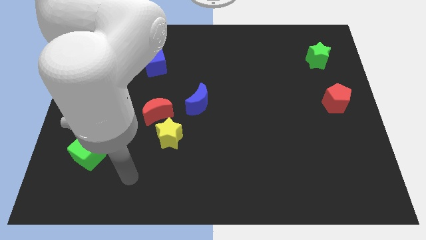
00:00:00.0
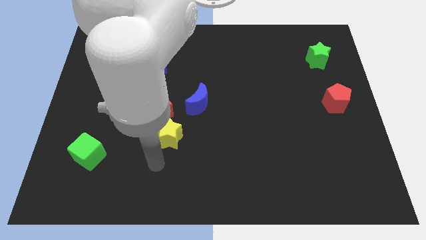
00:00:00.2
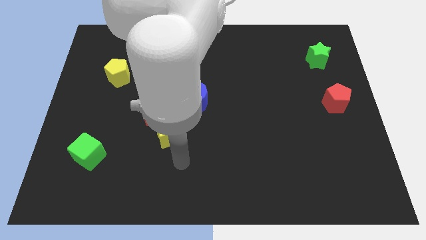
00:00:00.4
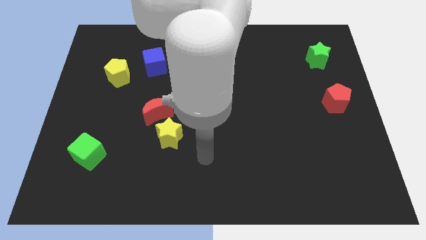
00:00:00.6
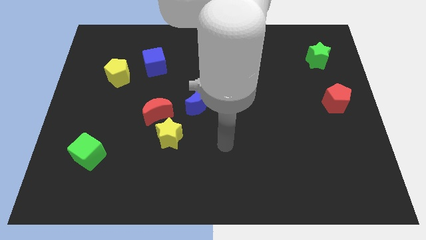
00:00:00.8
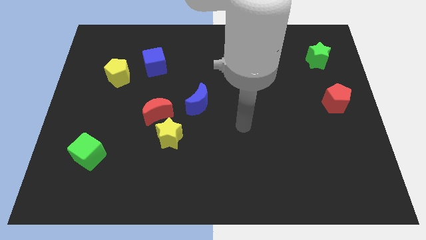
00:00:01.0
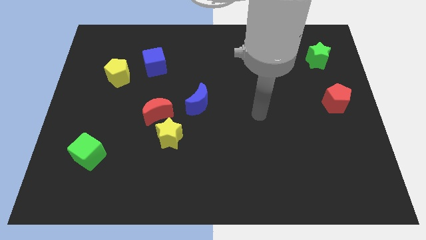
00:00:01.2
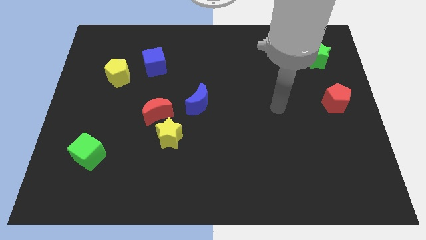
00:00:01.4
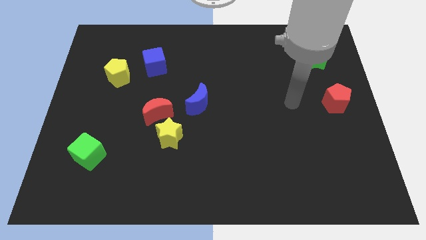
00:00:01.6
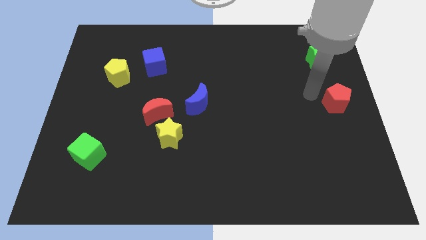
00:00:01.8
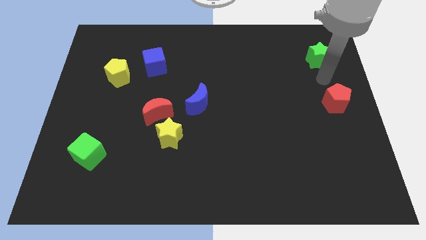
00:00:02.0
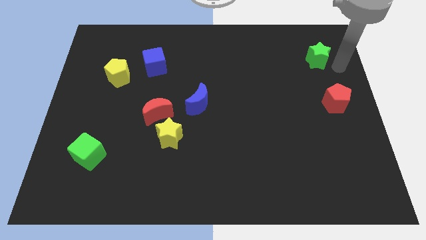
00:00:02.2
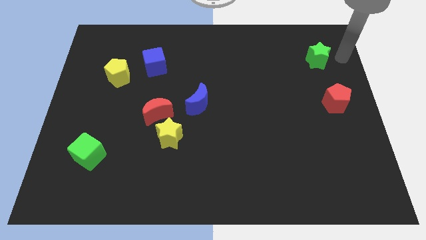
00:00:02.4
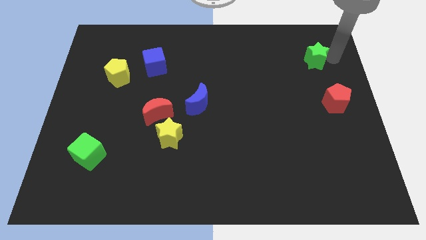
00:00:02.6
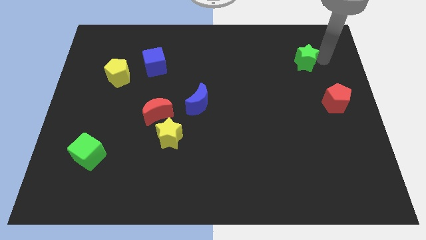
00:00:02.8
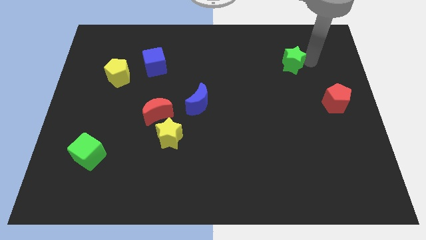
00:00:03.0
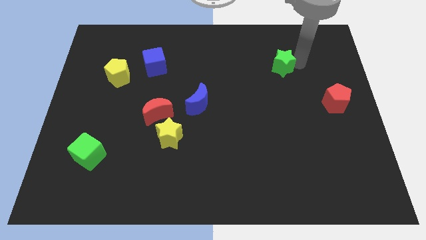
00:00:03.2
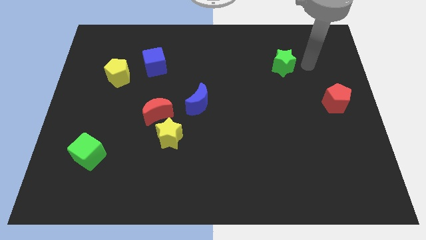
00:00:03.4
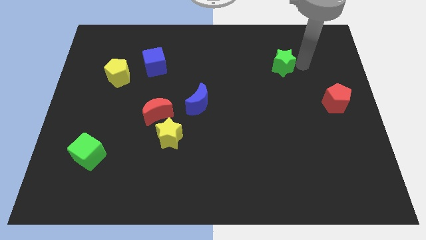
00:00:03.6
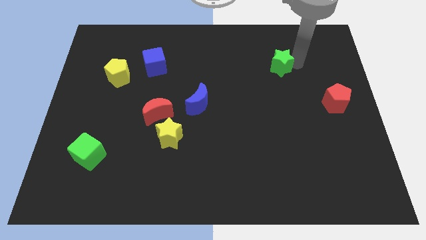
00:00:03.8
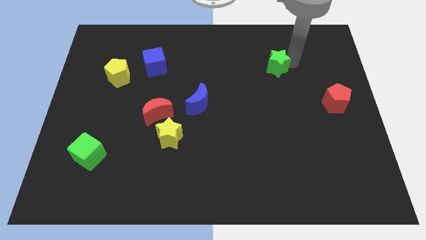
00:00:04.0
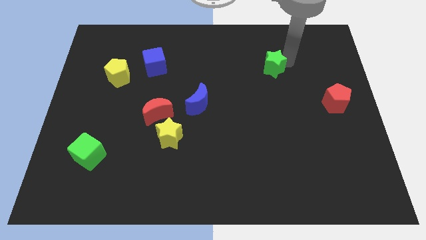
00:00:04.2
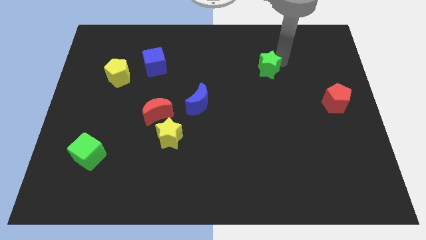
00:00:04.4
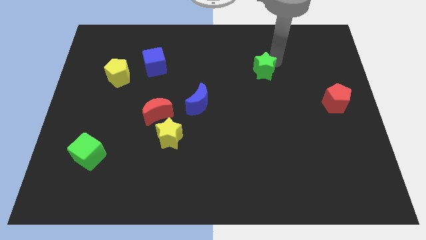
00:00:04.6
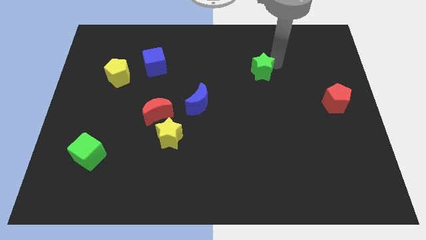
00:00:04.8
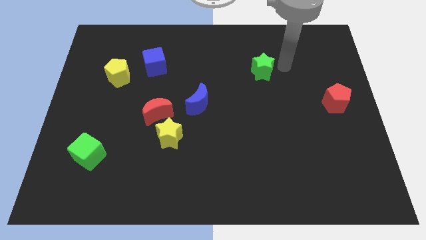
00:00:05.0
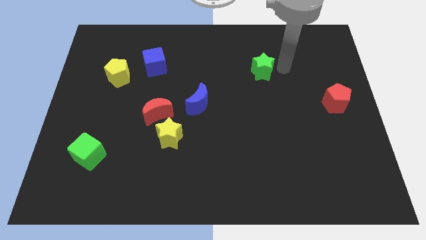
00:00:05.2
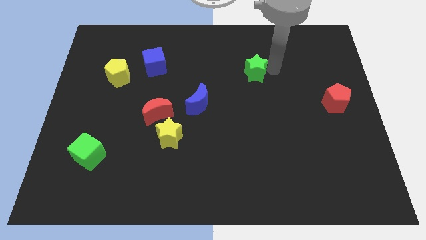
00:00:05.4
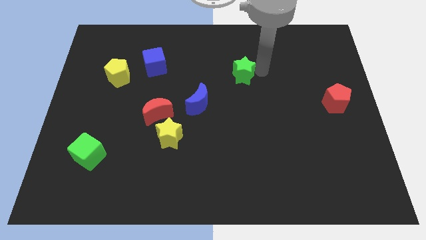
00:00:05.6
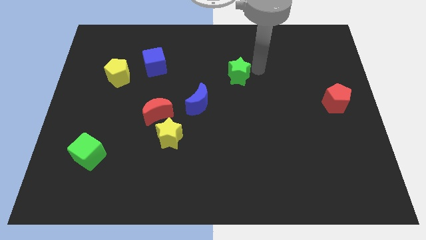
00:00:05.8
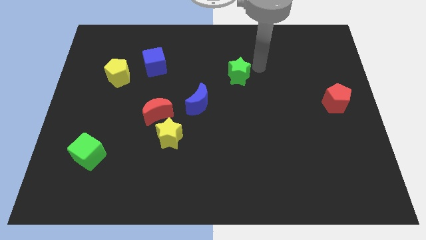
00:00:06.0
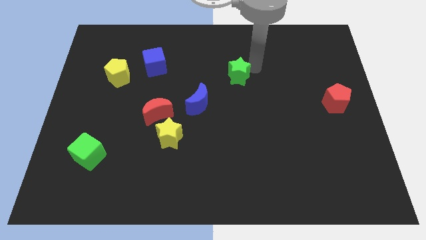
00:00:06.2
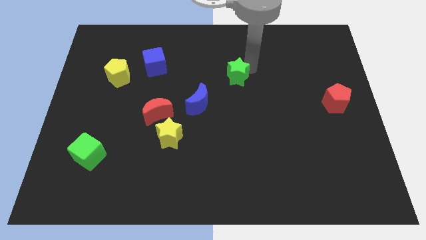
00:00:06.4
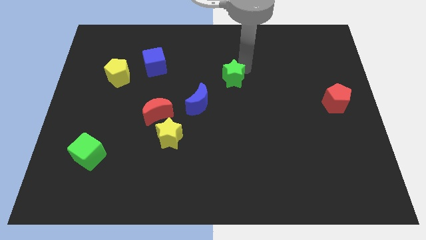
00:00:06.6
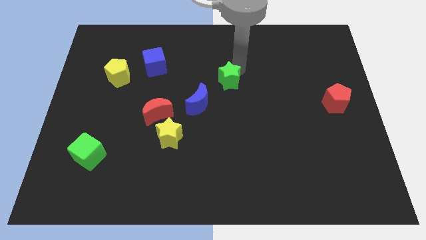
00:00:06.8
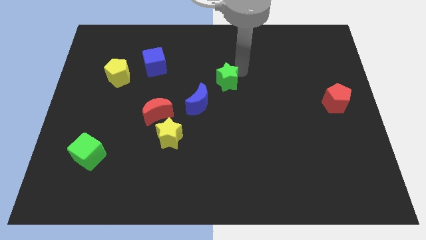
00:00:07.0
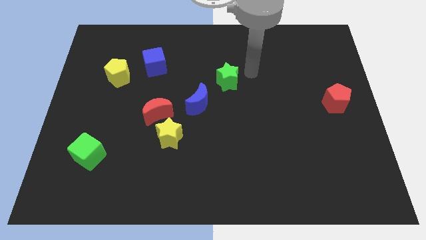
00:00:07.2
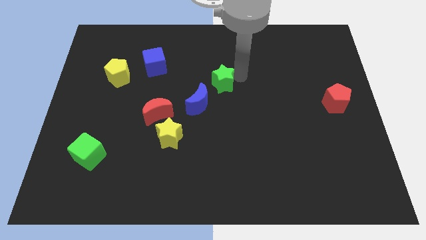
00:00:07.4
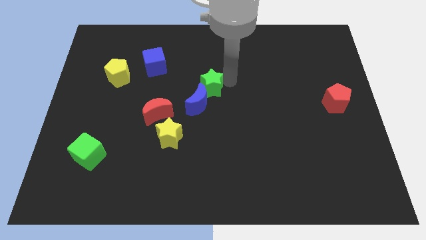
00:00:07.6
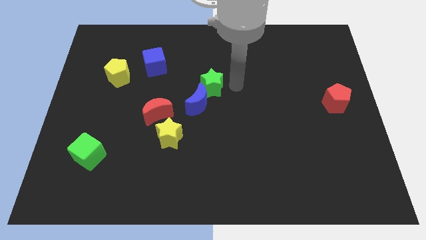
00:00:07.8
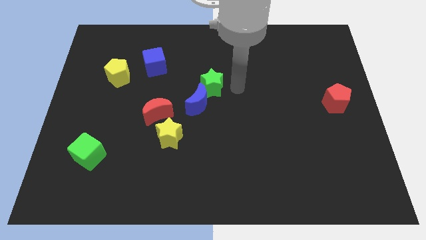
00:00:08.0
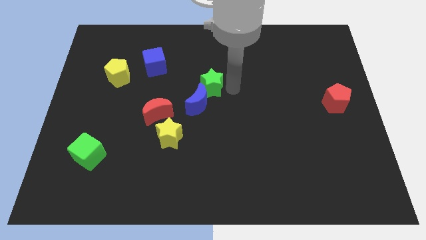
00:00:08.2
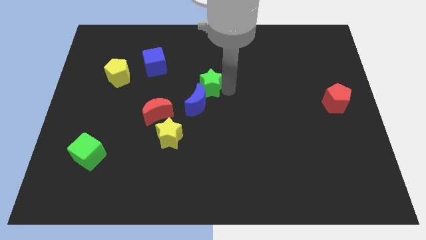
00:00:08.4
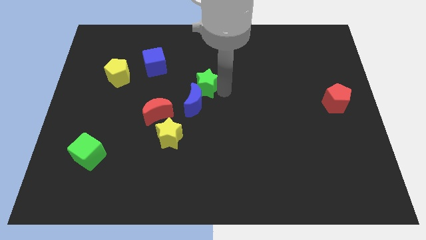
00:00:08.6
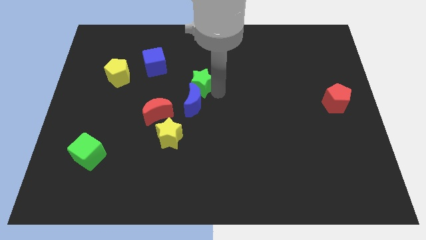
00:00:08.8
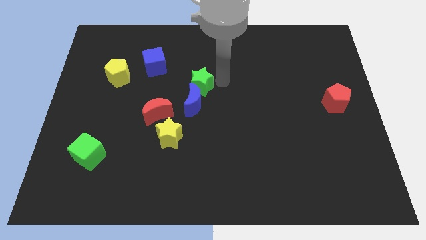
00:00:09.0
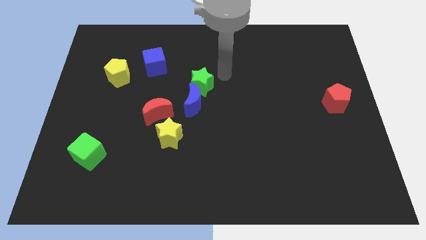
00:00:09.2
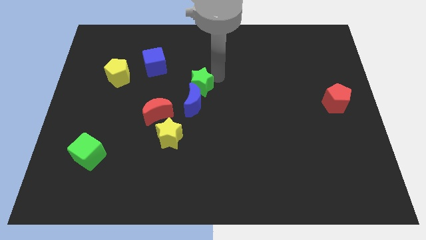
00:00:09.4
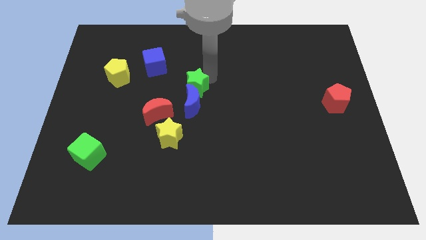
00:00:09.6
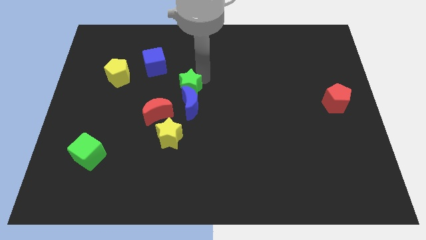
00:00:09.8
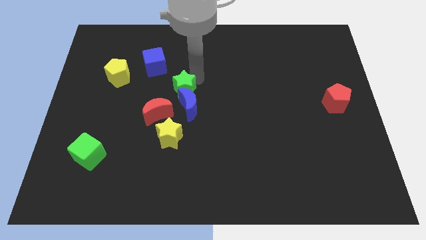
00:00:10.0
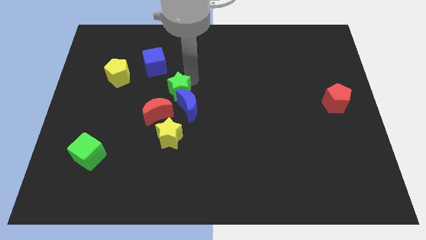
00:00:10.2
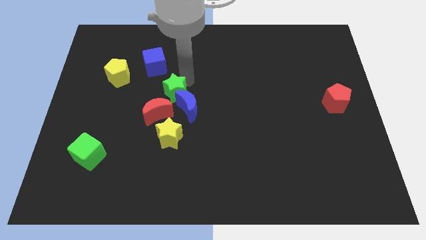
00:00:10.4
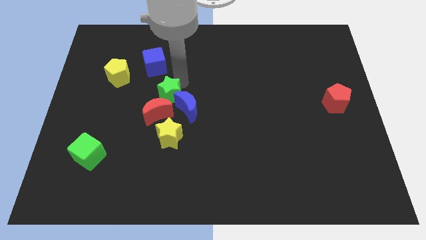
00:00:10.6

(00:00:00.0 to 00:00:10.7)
slide the green star left of the blue moon

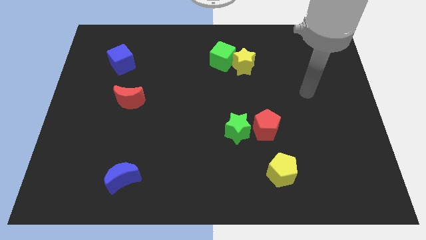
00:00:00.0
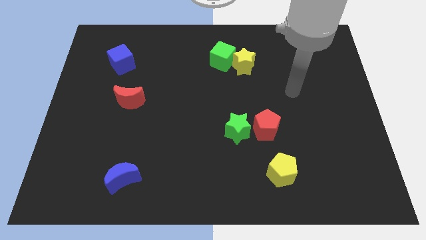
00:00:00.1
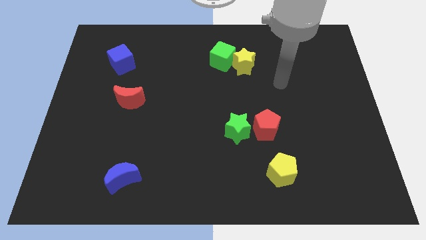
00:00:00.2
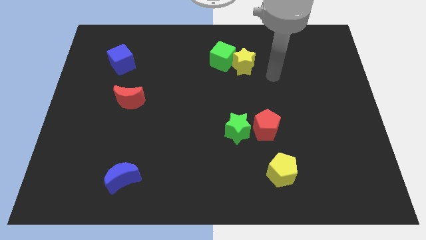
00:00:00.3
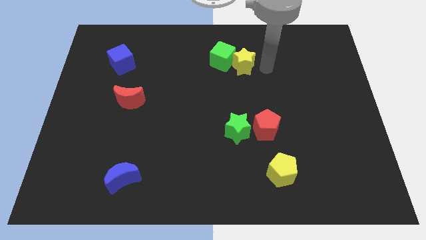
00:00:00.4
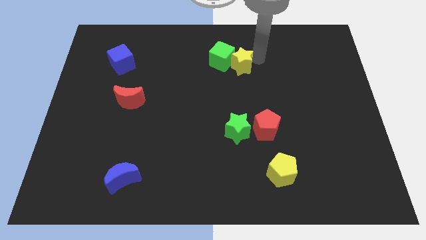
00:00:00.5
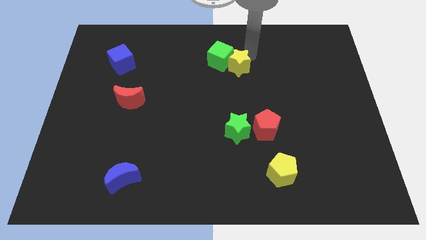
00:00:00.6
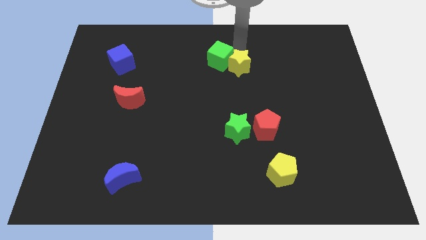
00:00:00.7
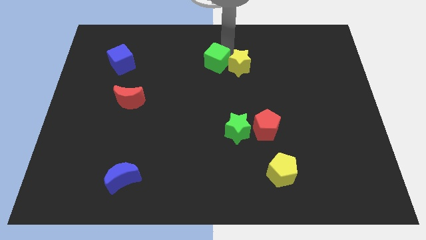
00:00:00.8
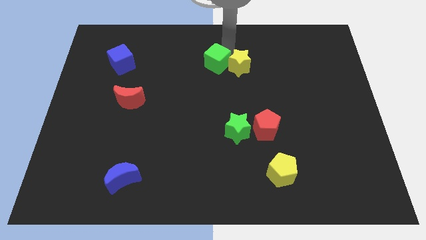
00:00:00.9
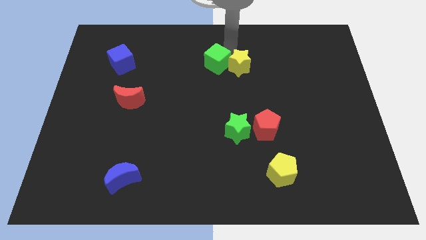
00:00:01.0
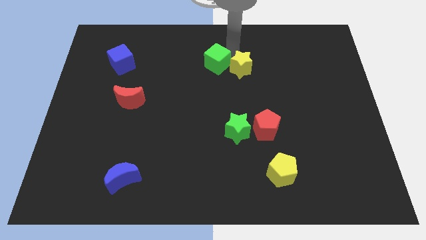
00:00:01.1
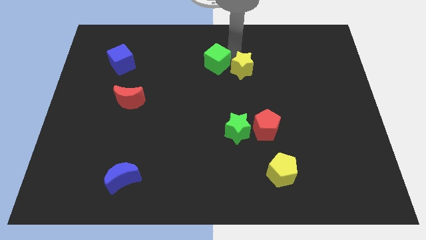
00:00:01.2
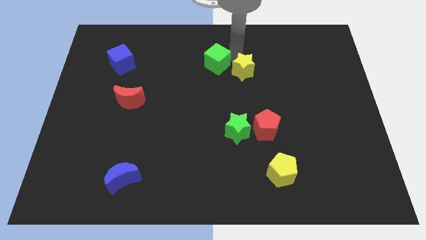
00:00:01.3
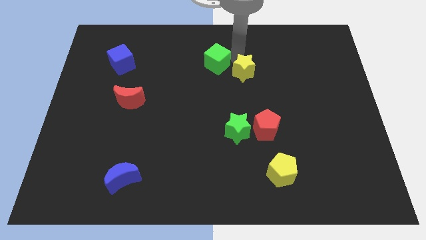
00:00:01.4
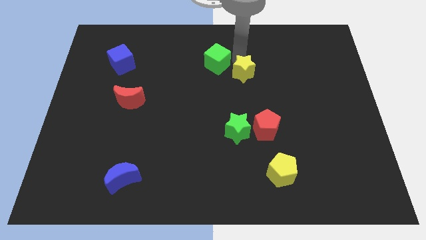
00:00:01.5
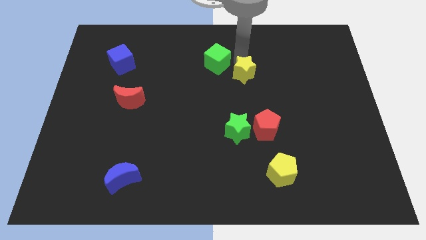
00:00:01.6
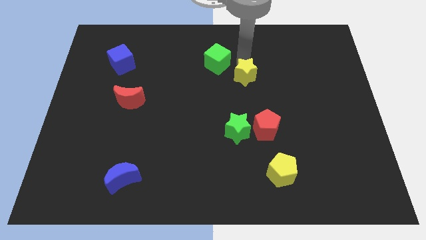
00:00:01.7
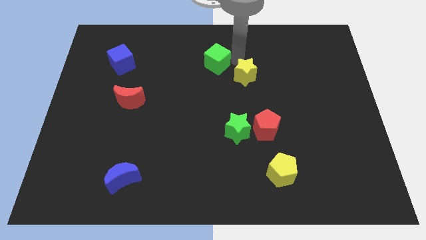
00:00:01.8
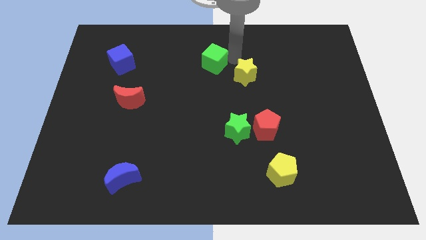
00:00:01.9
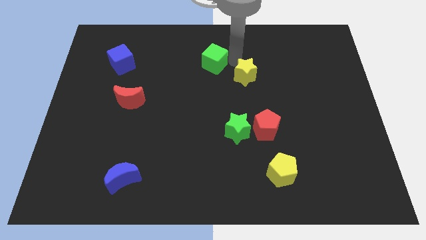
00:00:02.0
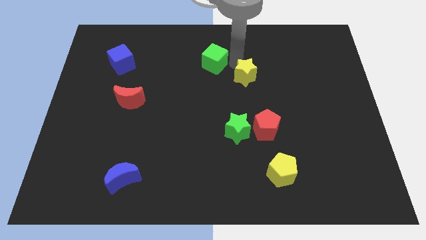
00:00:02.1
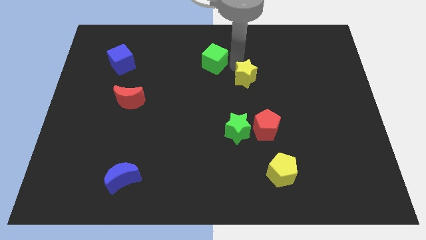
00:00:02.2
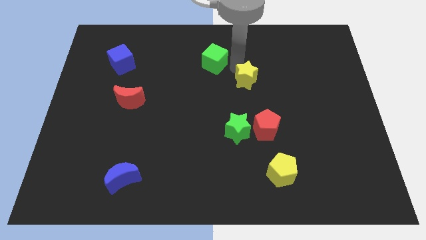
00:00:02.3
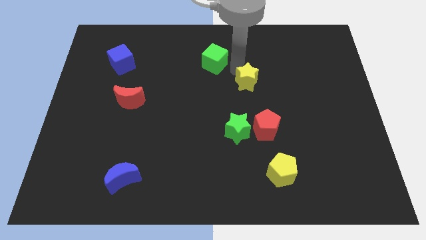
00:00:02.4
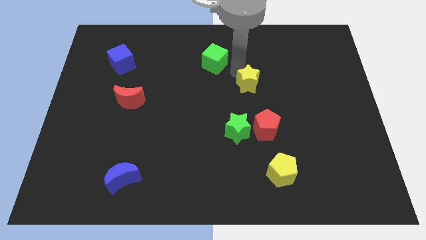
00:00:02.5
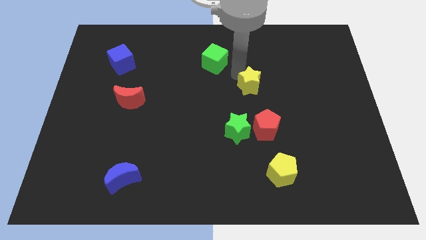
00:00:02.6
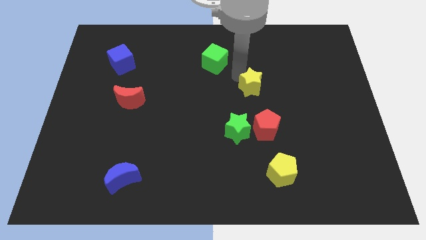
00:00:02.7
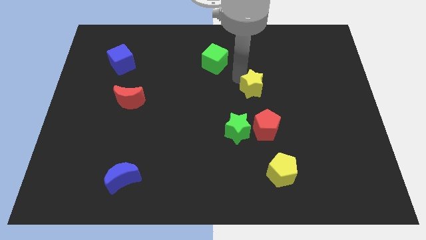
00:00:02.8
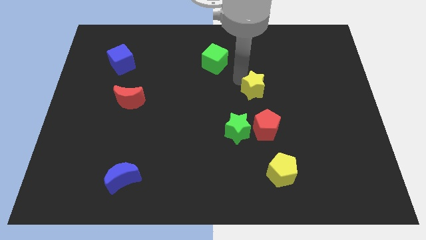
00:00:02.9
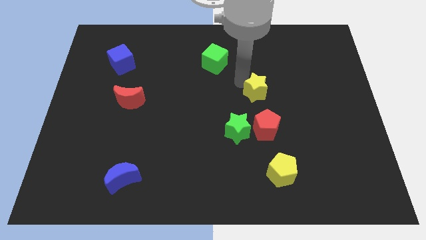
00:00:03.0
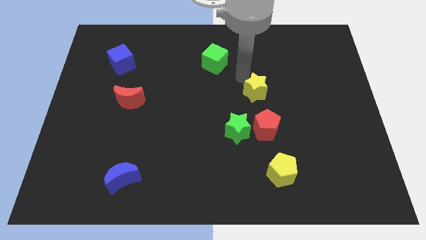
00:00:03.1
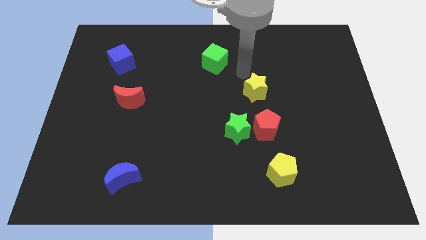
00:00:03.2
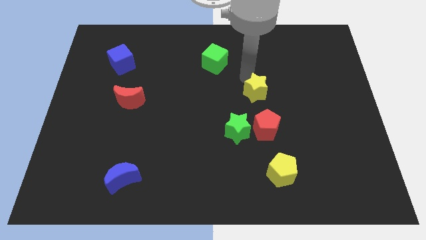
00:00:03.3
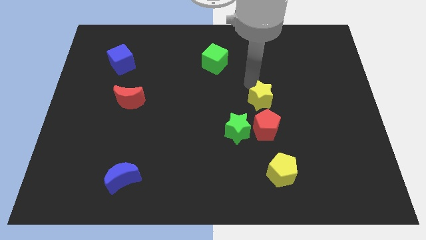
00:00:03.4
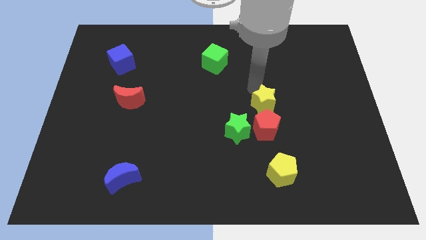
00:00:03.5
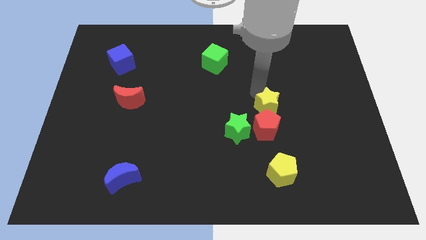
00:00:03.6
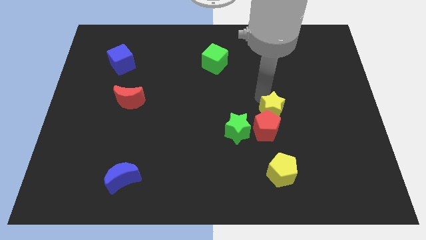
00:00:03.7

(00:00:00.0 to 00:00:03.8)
move the yellow star to the top side of the yellow pentagon
